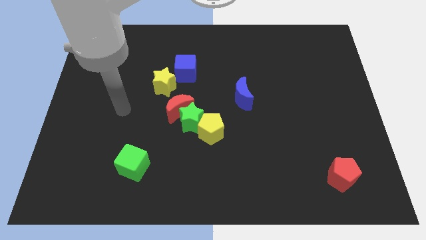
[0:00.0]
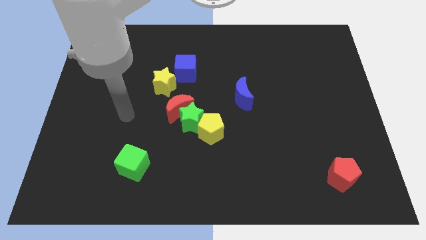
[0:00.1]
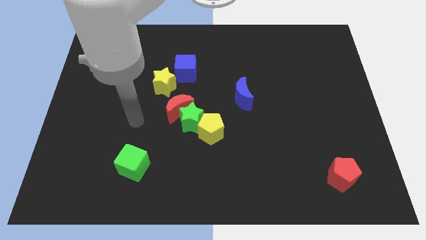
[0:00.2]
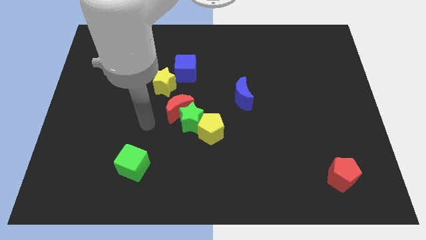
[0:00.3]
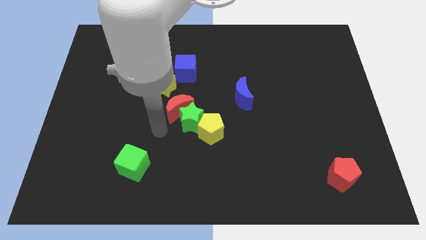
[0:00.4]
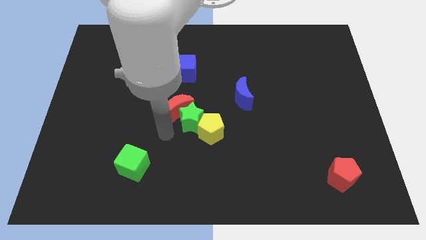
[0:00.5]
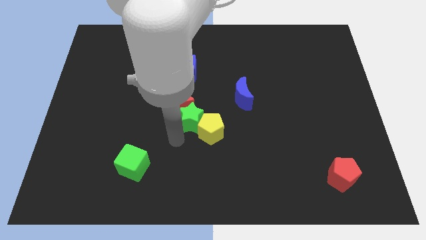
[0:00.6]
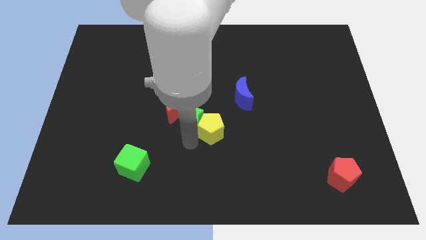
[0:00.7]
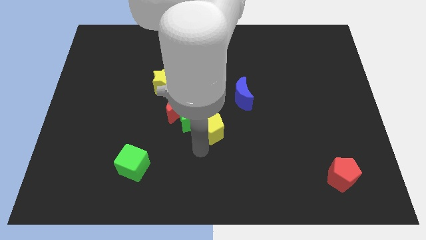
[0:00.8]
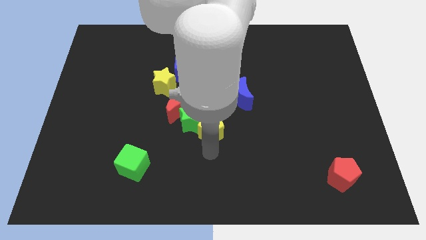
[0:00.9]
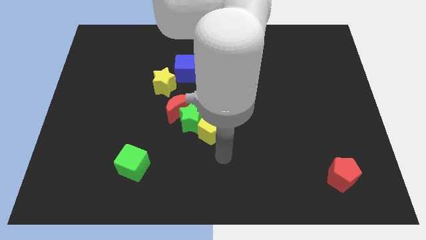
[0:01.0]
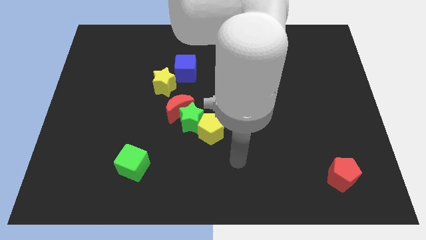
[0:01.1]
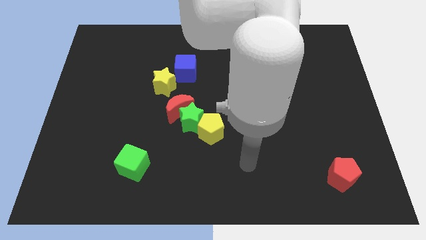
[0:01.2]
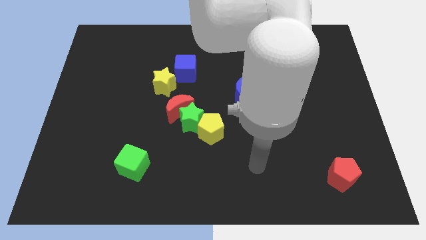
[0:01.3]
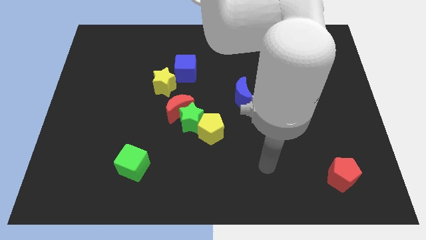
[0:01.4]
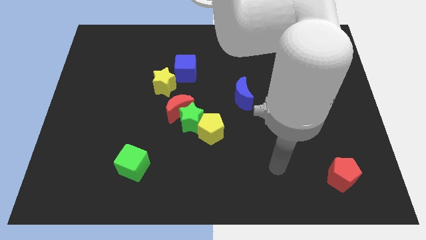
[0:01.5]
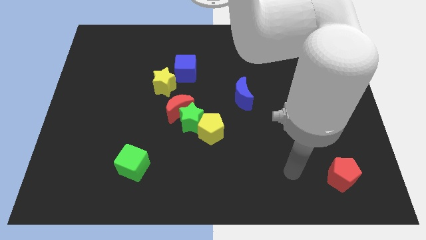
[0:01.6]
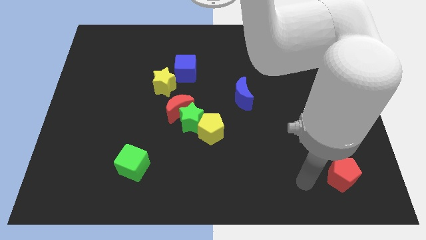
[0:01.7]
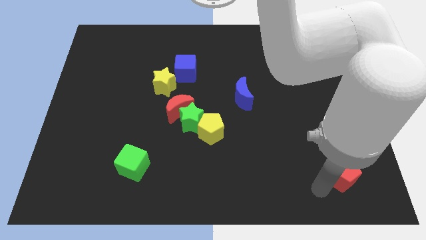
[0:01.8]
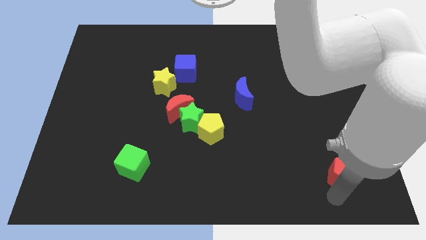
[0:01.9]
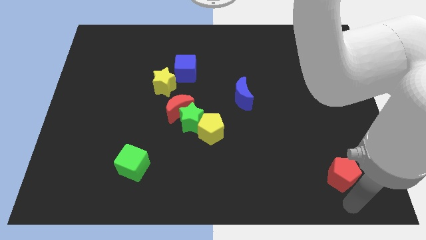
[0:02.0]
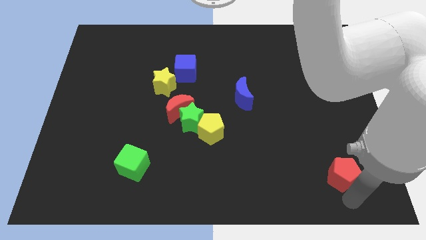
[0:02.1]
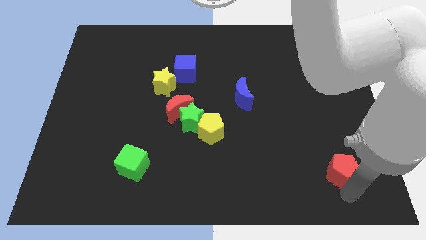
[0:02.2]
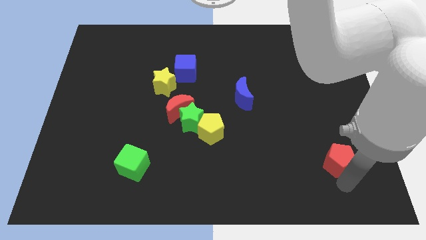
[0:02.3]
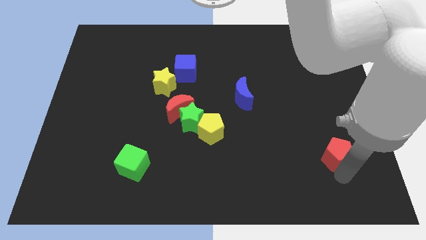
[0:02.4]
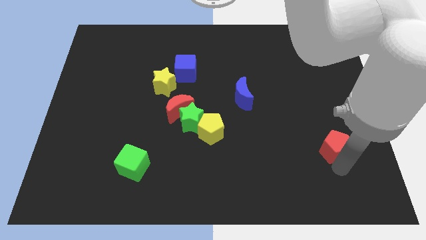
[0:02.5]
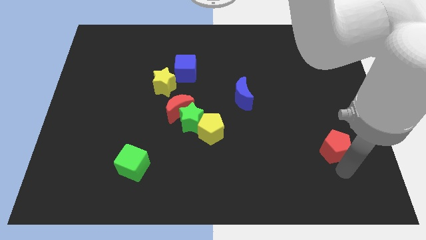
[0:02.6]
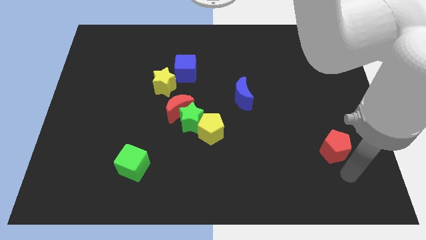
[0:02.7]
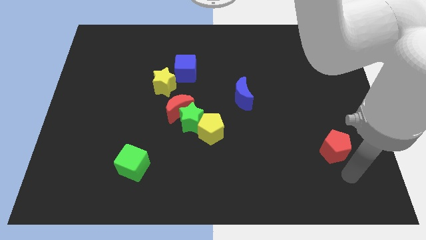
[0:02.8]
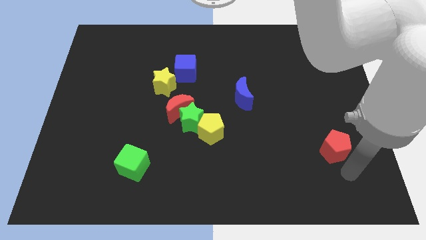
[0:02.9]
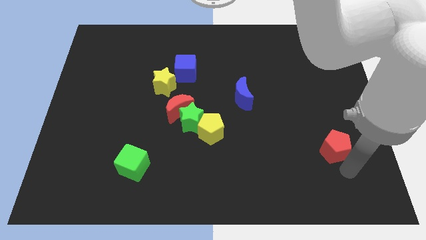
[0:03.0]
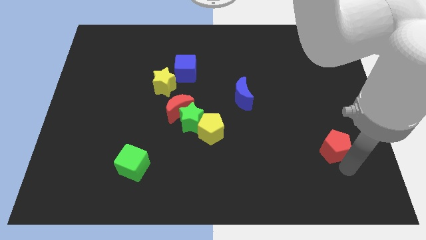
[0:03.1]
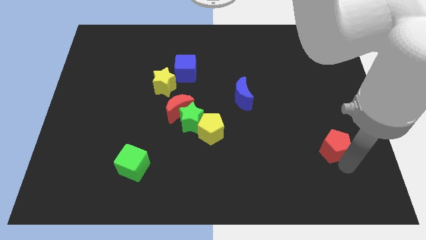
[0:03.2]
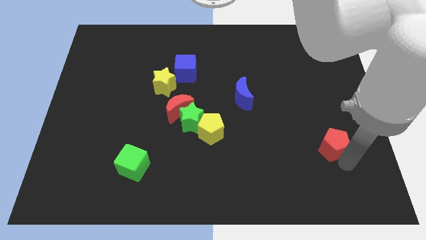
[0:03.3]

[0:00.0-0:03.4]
slightly slide the red pentagon upwards

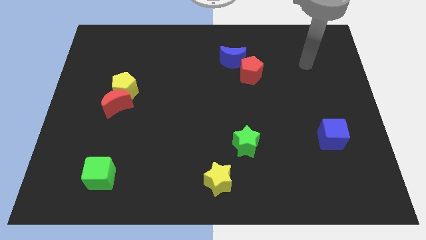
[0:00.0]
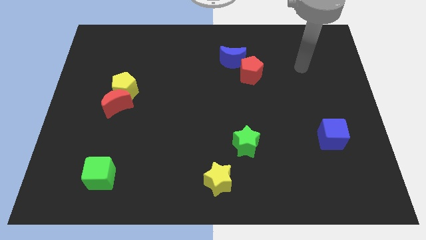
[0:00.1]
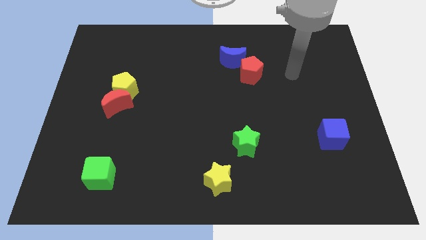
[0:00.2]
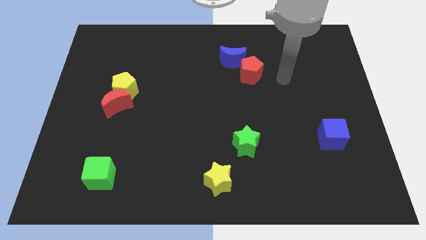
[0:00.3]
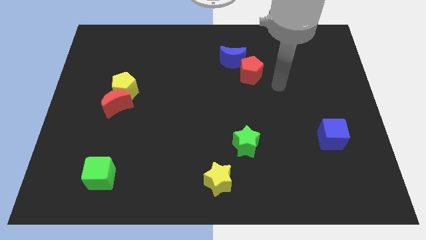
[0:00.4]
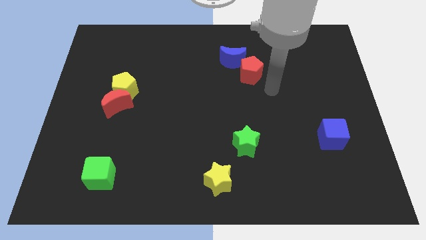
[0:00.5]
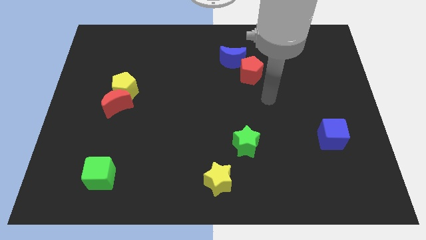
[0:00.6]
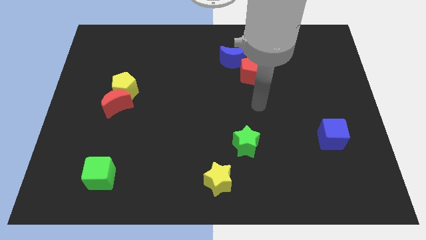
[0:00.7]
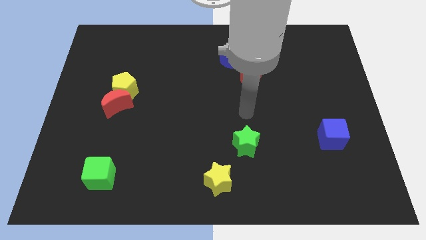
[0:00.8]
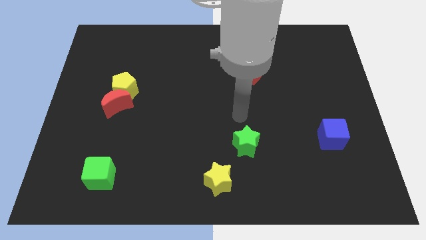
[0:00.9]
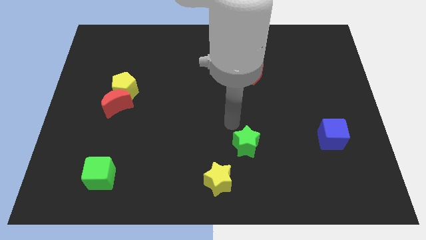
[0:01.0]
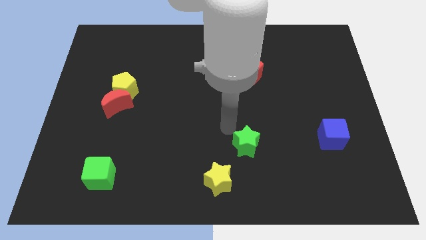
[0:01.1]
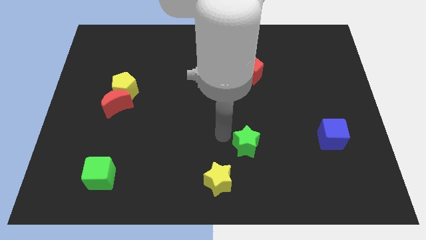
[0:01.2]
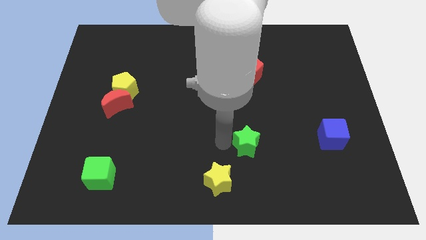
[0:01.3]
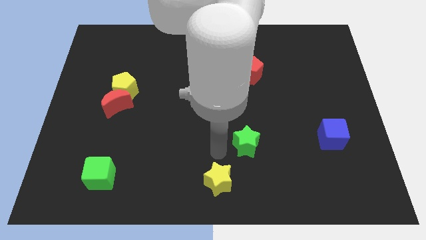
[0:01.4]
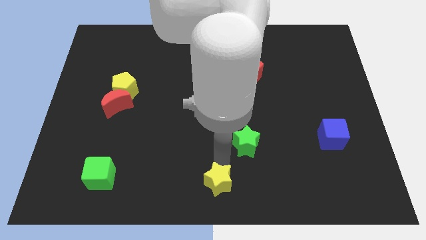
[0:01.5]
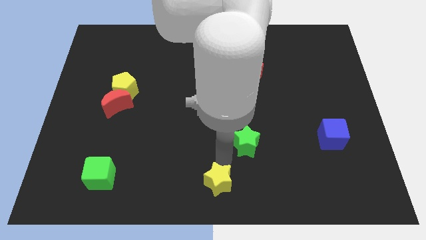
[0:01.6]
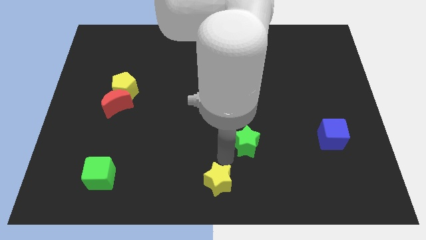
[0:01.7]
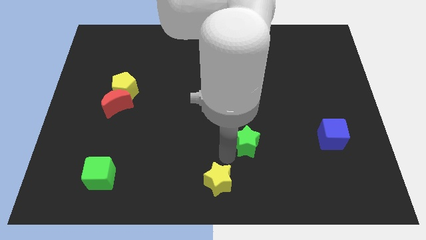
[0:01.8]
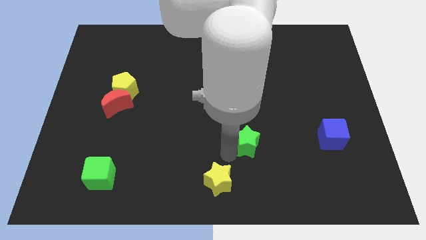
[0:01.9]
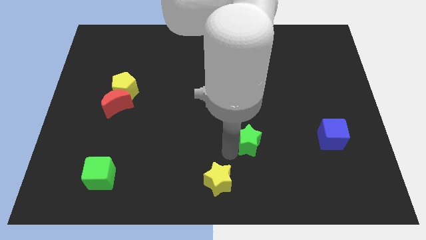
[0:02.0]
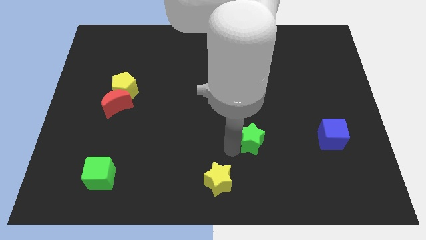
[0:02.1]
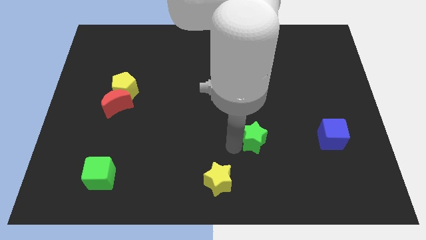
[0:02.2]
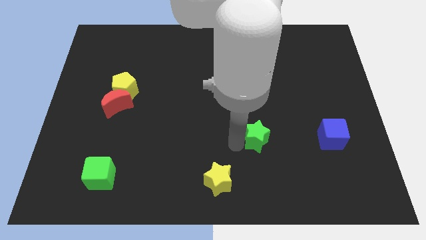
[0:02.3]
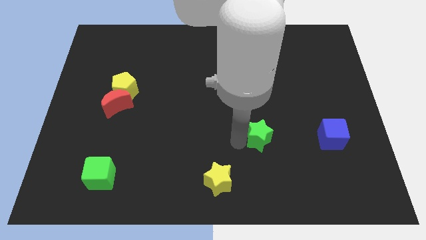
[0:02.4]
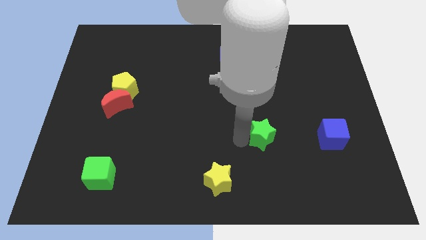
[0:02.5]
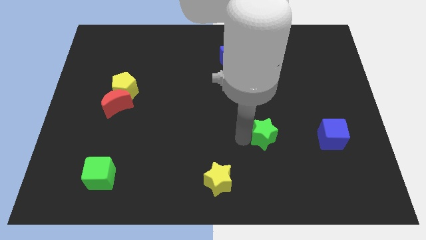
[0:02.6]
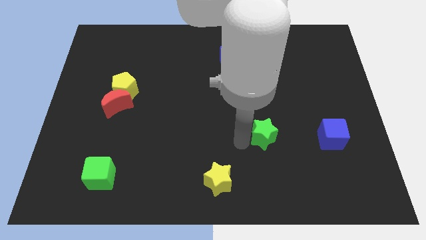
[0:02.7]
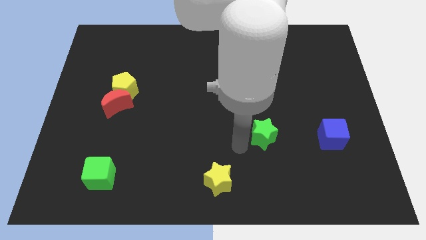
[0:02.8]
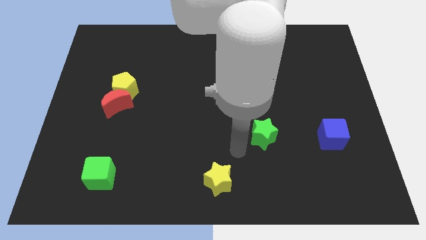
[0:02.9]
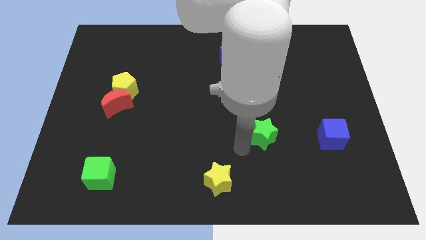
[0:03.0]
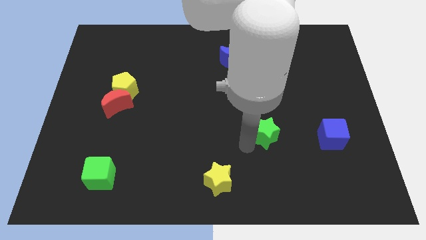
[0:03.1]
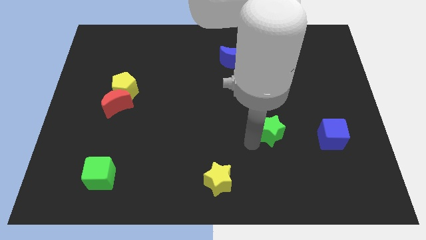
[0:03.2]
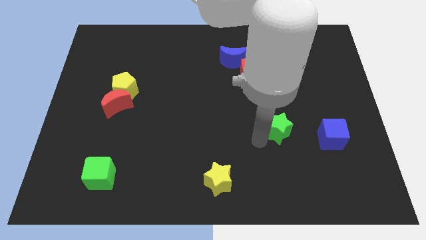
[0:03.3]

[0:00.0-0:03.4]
move the green star up and then to the right somewhat

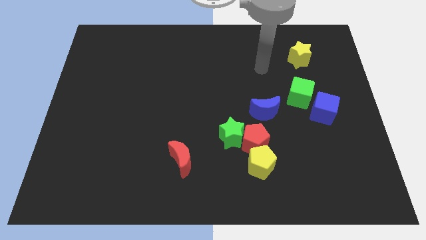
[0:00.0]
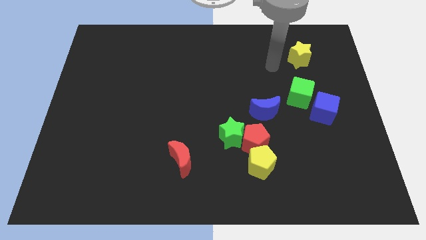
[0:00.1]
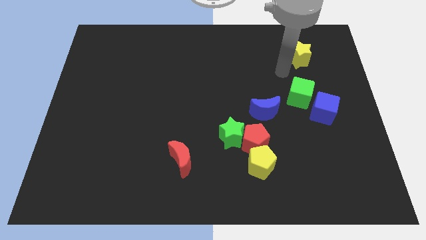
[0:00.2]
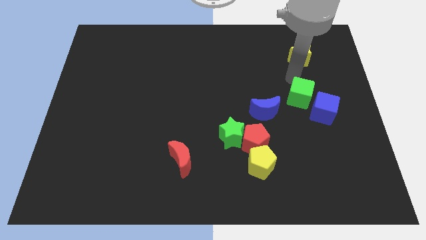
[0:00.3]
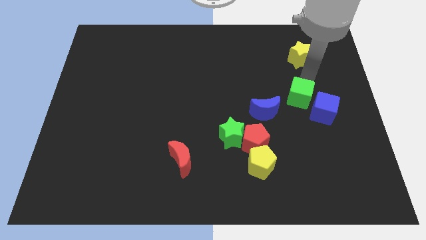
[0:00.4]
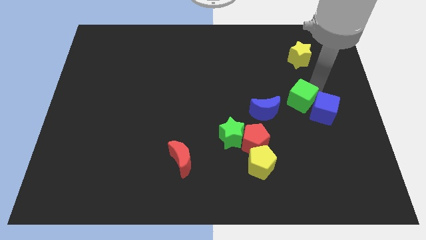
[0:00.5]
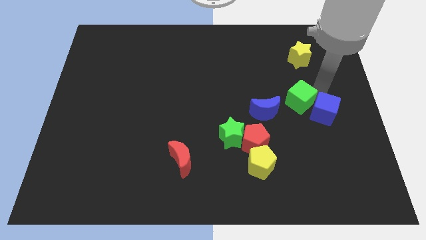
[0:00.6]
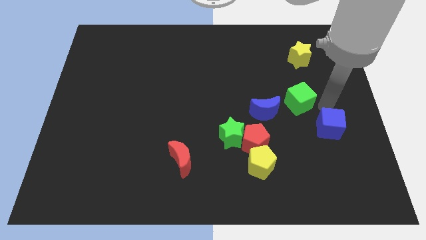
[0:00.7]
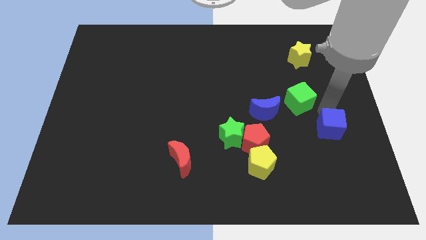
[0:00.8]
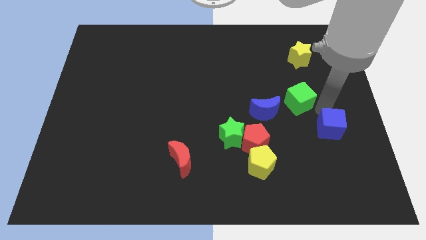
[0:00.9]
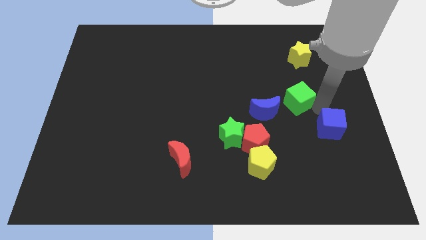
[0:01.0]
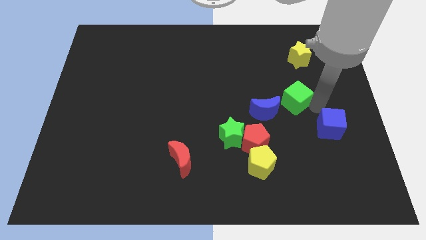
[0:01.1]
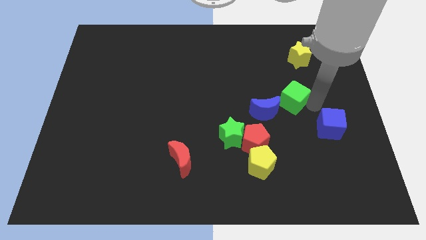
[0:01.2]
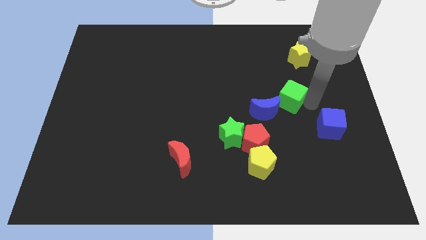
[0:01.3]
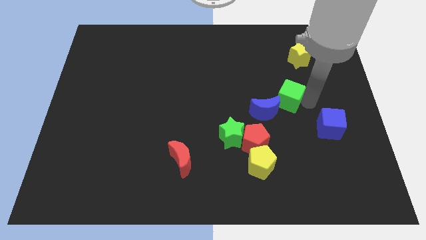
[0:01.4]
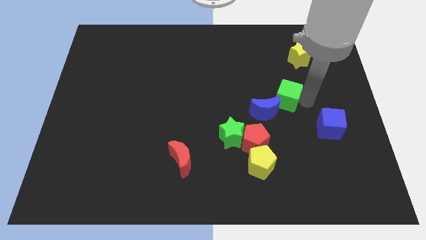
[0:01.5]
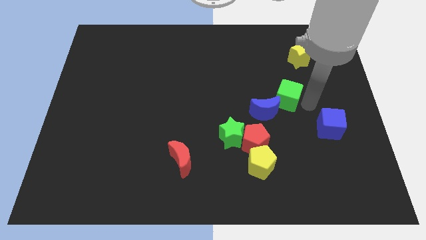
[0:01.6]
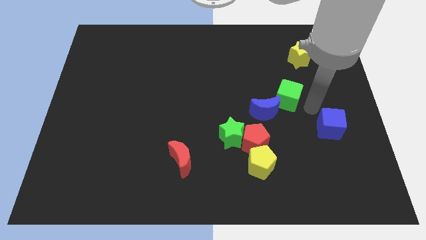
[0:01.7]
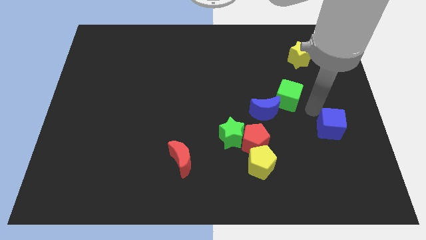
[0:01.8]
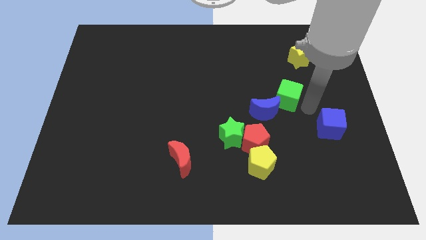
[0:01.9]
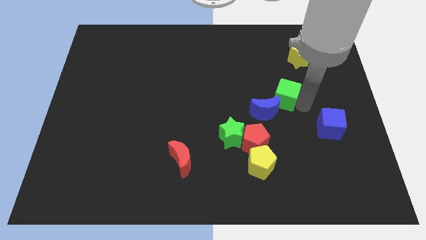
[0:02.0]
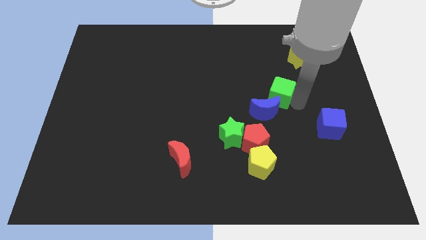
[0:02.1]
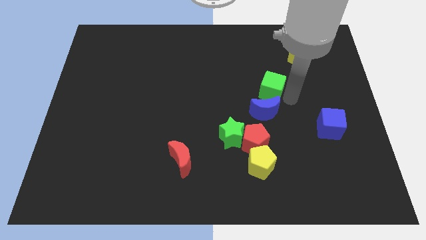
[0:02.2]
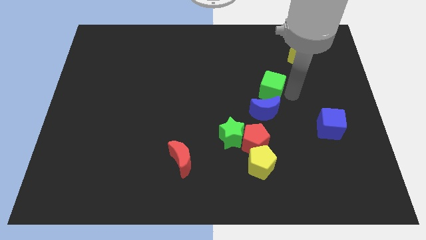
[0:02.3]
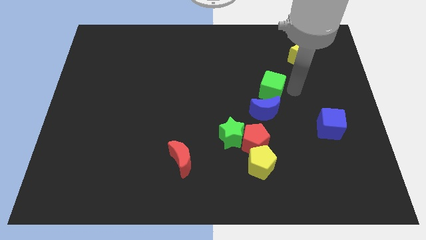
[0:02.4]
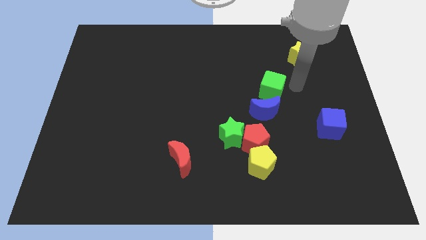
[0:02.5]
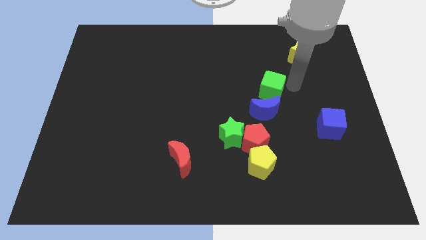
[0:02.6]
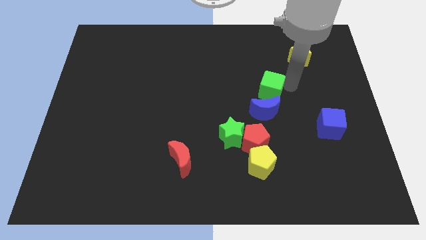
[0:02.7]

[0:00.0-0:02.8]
slightly move the green cube left
